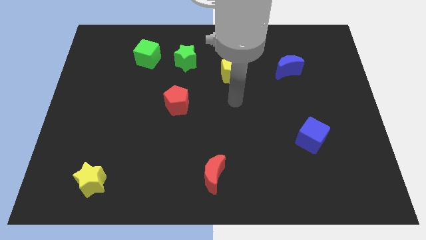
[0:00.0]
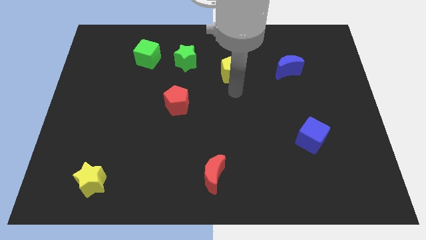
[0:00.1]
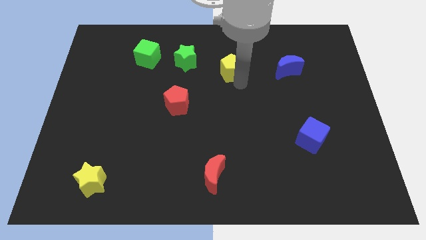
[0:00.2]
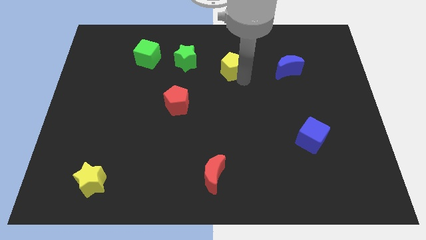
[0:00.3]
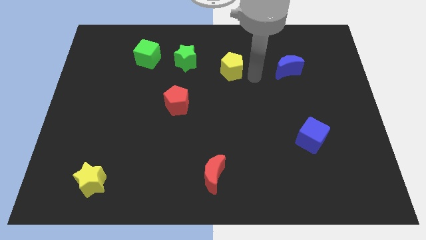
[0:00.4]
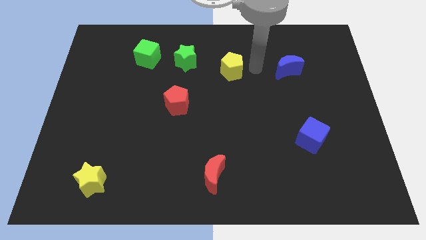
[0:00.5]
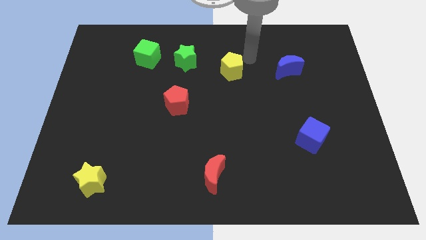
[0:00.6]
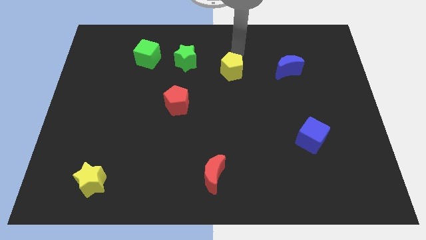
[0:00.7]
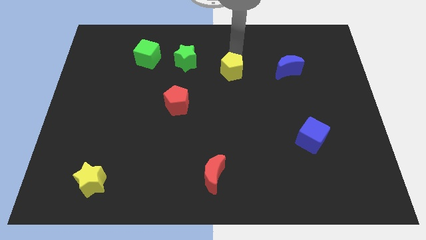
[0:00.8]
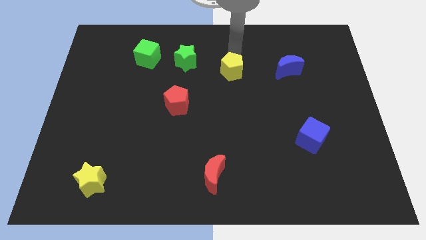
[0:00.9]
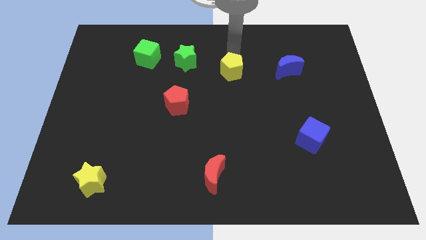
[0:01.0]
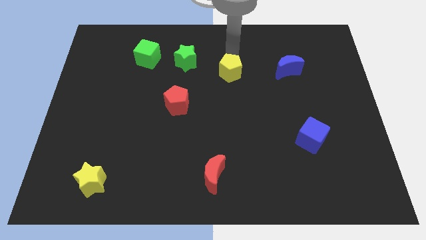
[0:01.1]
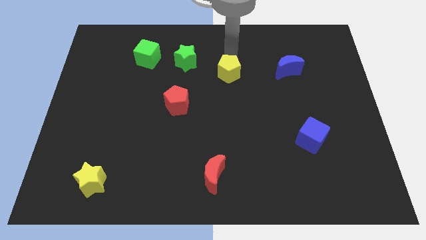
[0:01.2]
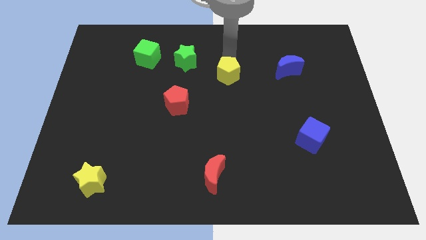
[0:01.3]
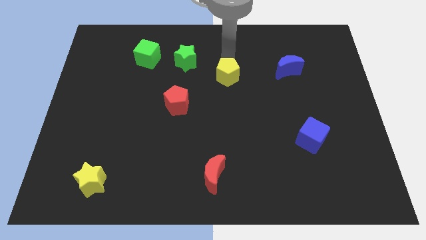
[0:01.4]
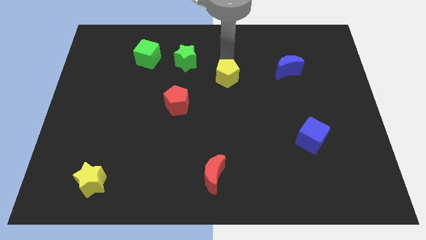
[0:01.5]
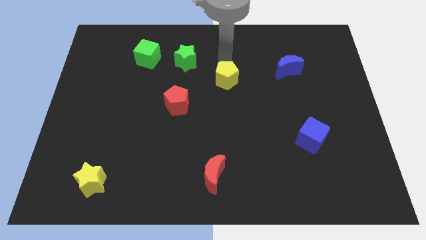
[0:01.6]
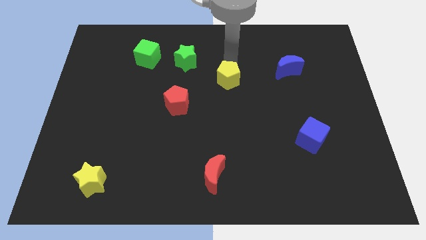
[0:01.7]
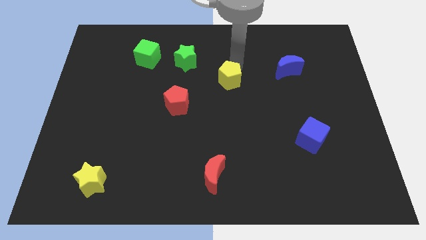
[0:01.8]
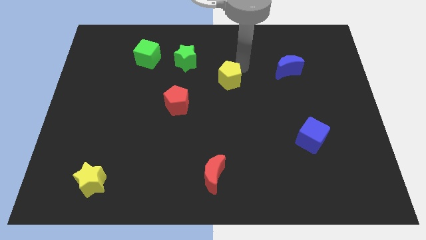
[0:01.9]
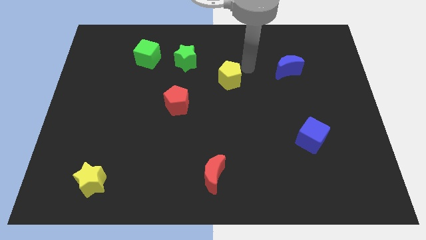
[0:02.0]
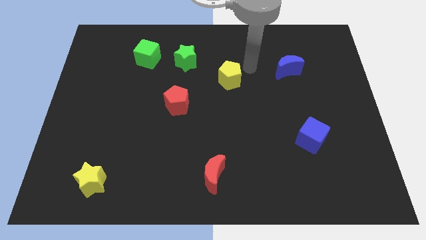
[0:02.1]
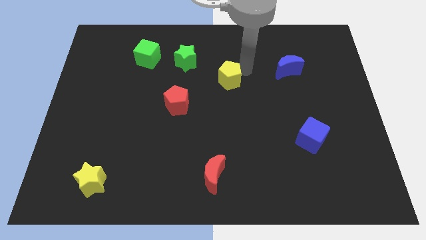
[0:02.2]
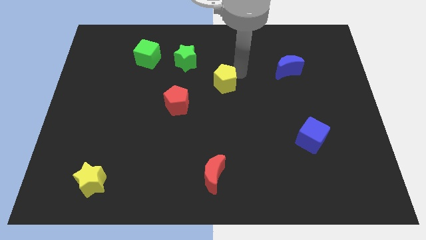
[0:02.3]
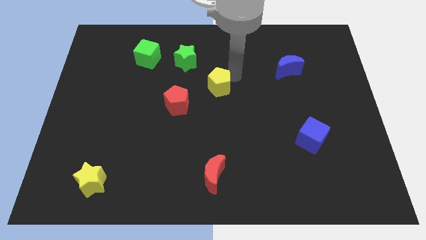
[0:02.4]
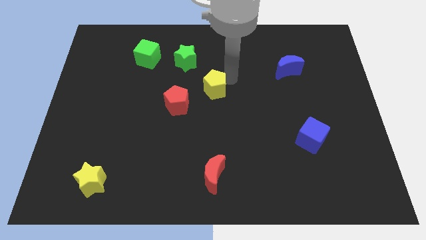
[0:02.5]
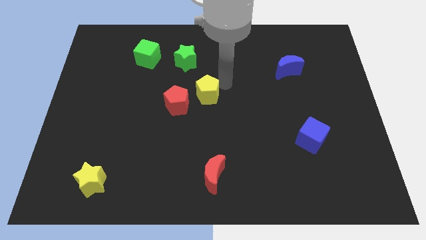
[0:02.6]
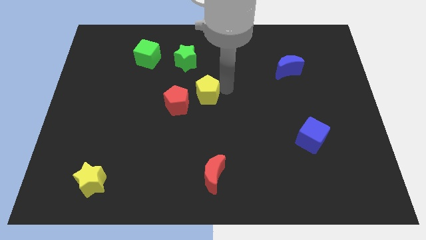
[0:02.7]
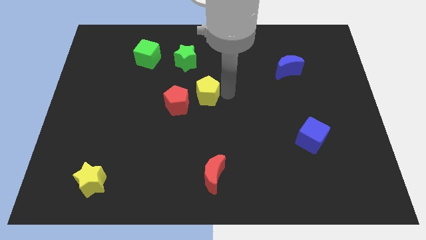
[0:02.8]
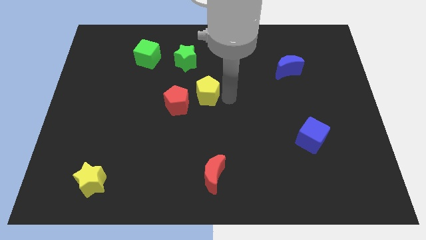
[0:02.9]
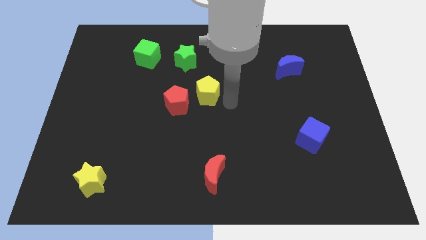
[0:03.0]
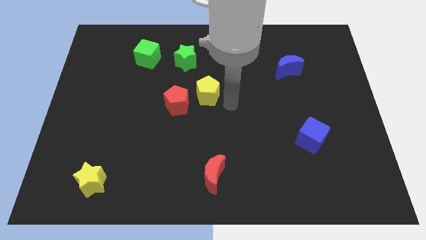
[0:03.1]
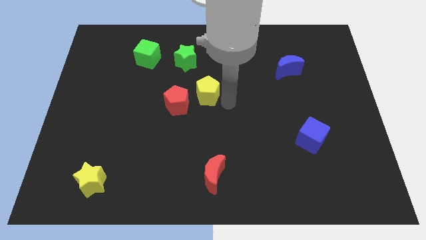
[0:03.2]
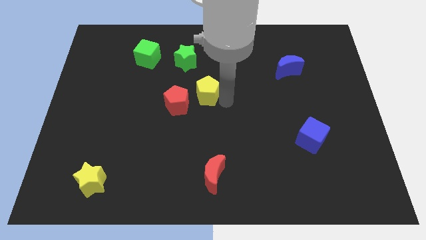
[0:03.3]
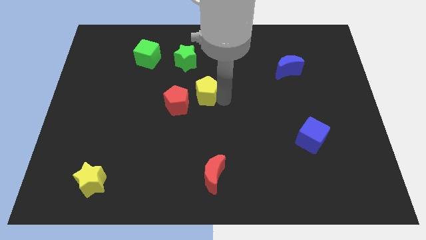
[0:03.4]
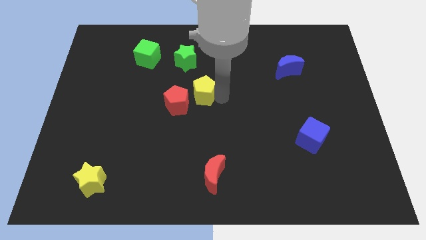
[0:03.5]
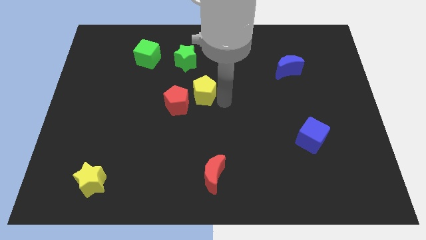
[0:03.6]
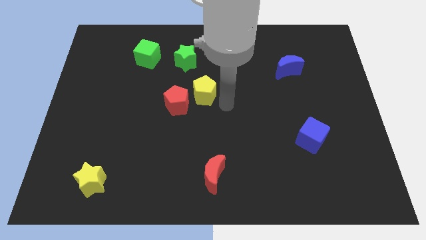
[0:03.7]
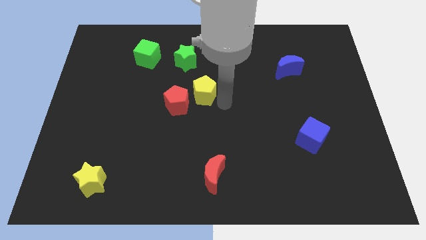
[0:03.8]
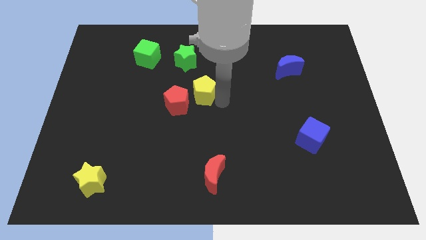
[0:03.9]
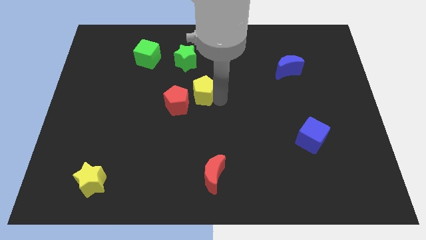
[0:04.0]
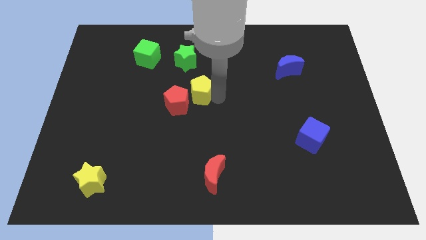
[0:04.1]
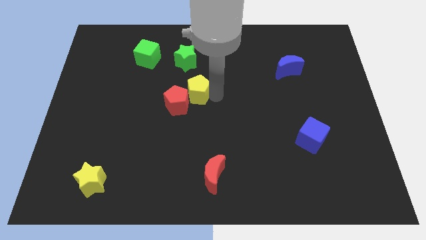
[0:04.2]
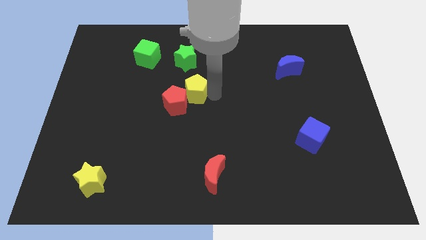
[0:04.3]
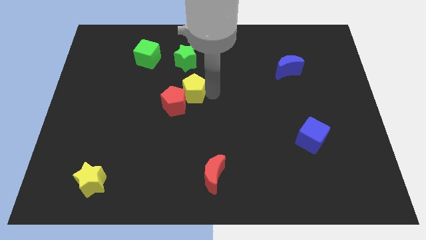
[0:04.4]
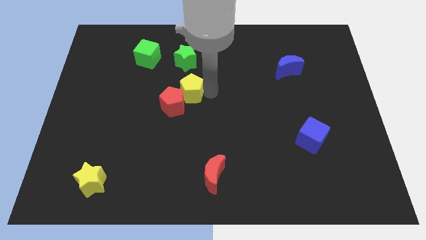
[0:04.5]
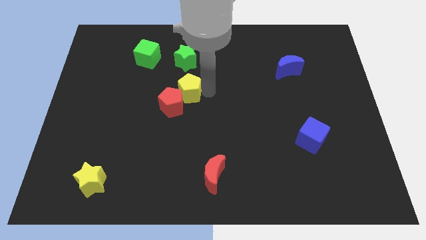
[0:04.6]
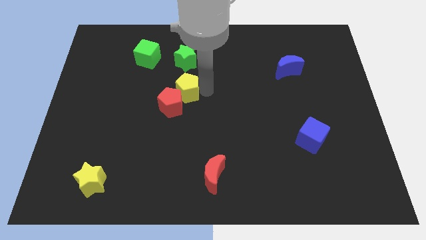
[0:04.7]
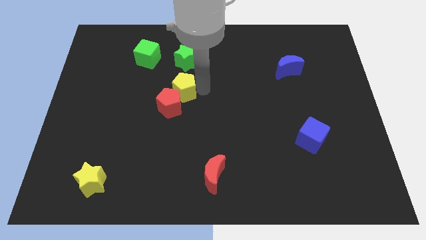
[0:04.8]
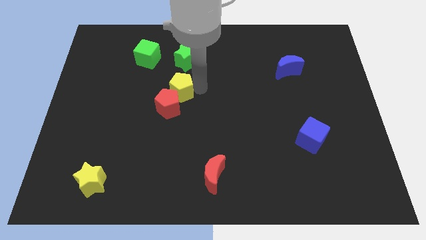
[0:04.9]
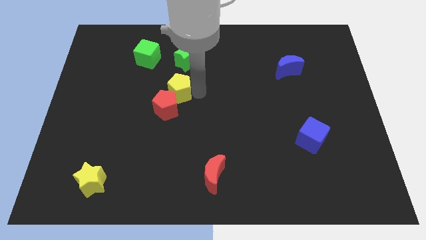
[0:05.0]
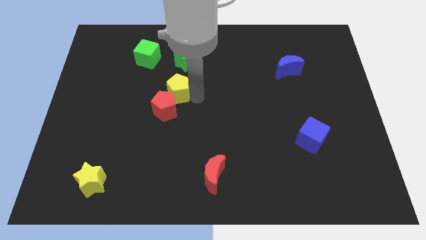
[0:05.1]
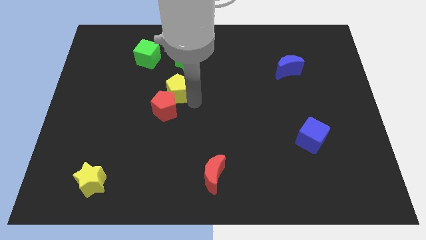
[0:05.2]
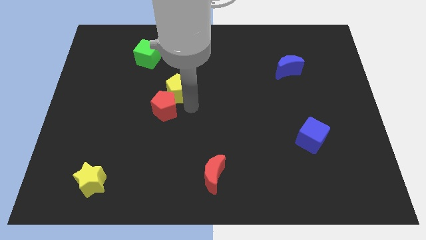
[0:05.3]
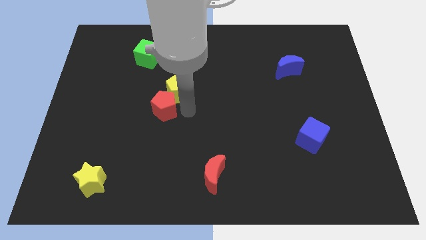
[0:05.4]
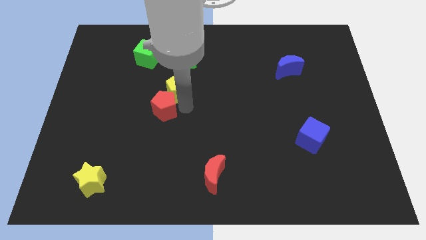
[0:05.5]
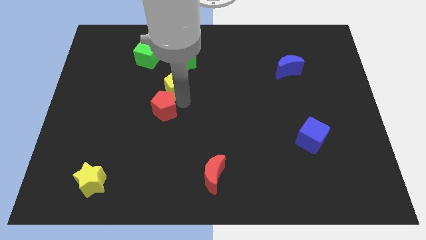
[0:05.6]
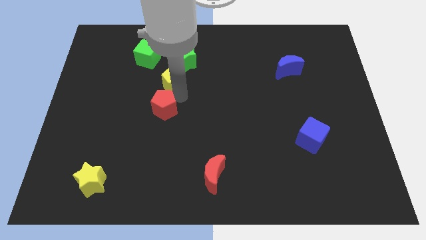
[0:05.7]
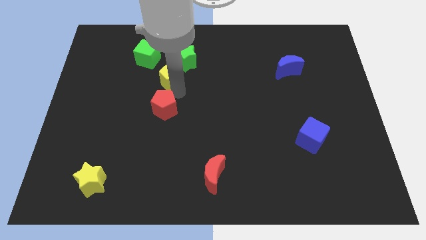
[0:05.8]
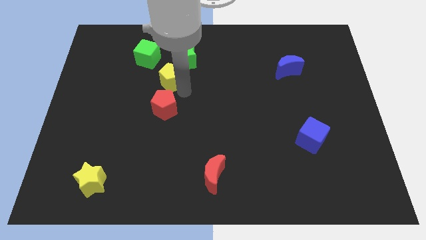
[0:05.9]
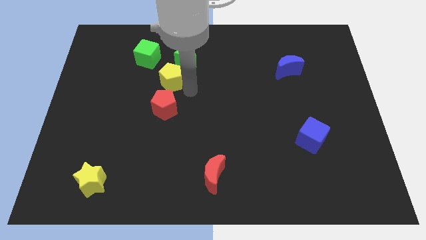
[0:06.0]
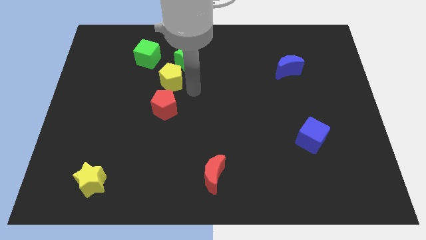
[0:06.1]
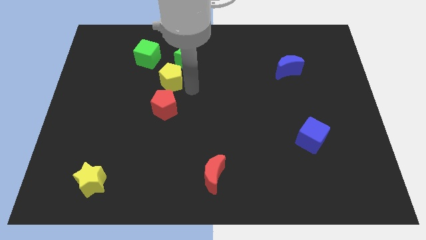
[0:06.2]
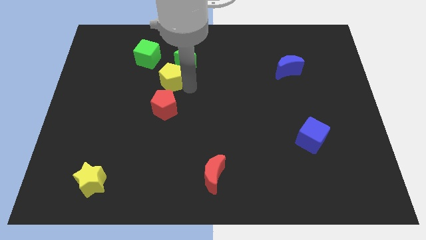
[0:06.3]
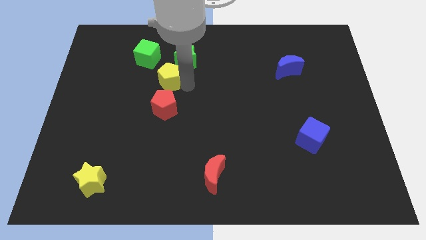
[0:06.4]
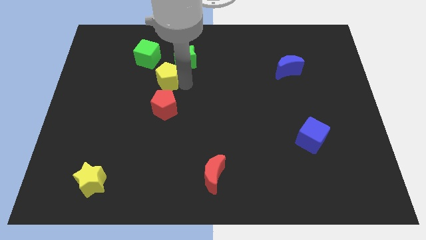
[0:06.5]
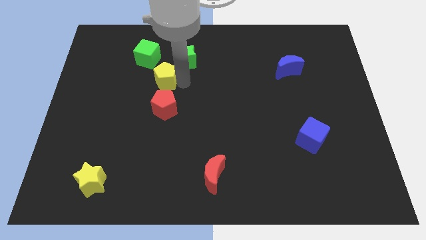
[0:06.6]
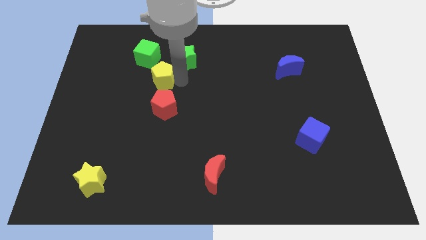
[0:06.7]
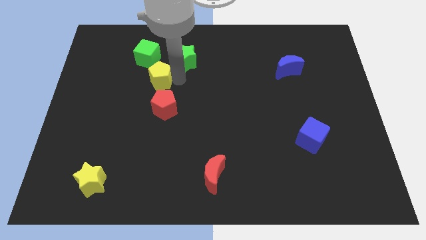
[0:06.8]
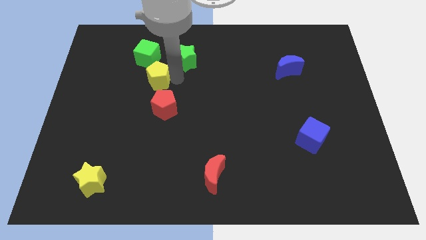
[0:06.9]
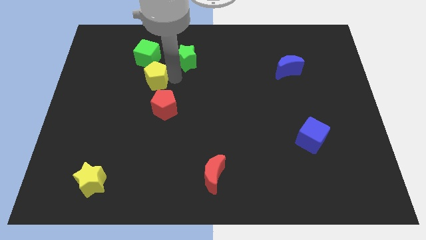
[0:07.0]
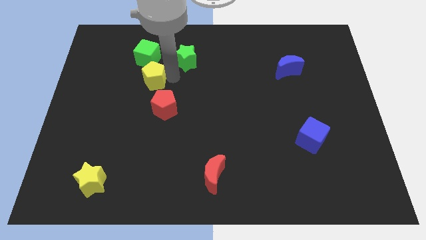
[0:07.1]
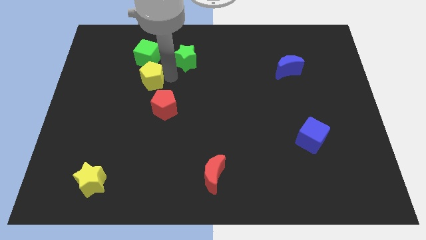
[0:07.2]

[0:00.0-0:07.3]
push the yellow pentagon left

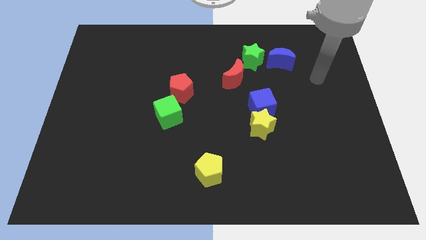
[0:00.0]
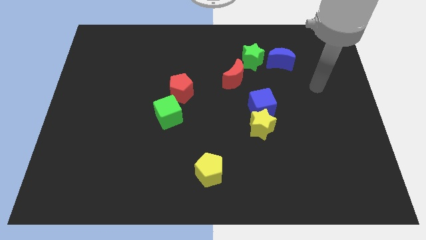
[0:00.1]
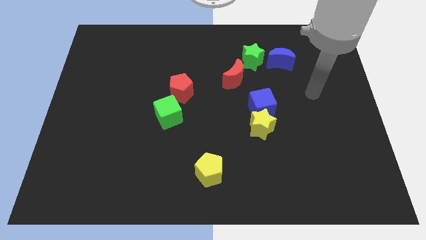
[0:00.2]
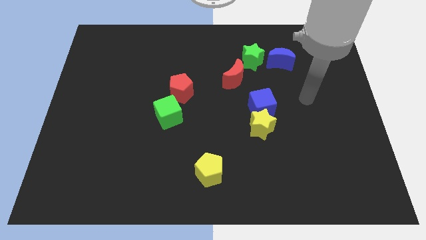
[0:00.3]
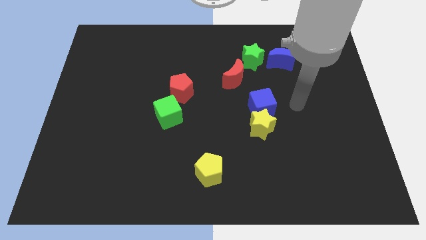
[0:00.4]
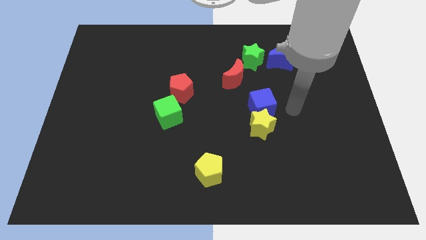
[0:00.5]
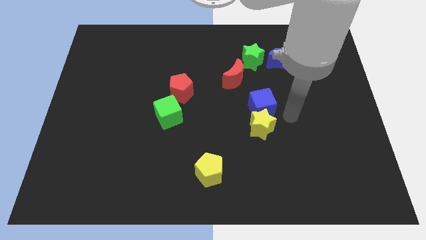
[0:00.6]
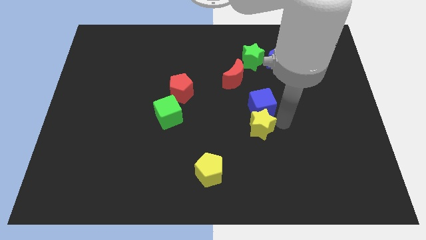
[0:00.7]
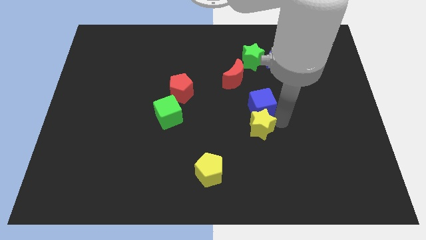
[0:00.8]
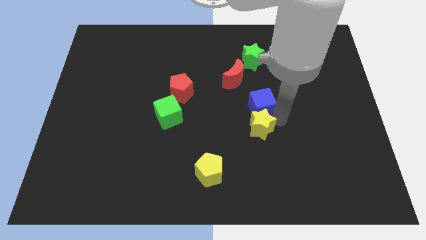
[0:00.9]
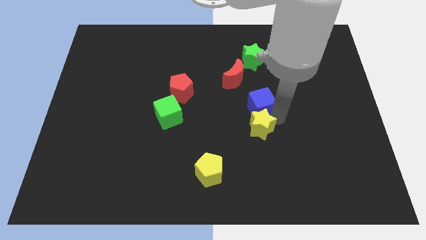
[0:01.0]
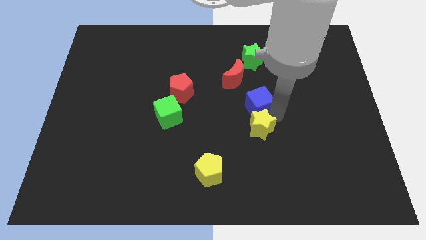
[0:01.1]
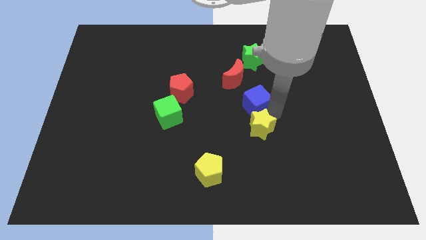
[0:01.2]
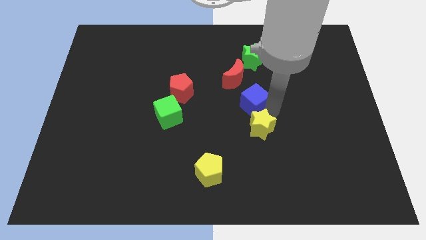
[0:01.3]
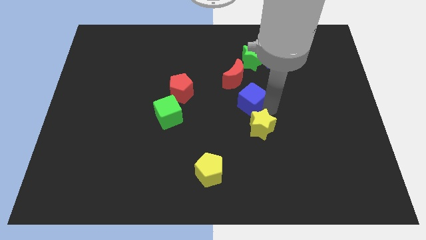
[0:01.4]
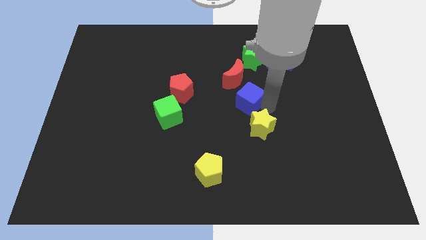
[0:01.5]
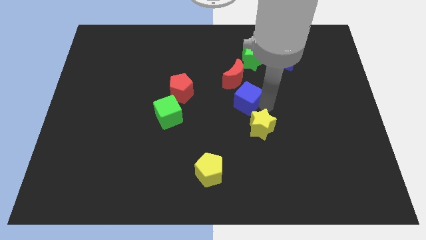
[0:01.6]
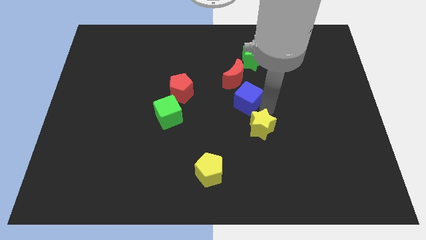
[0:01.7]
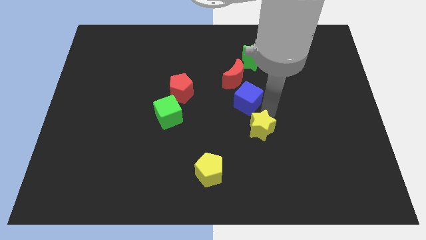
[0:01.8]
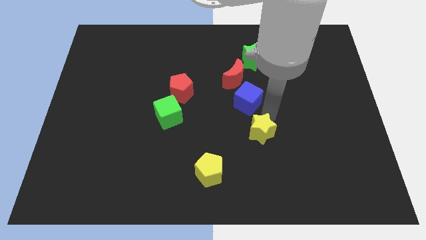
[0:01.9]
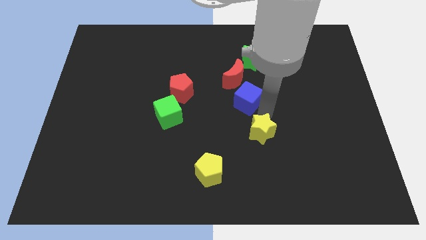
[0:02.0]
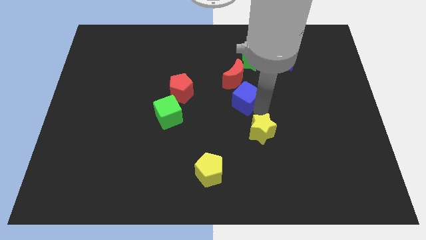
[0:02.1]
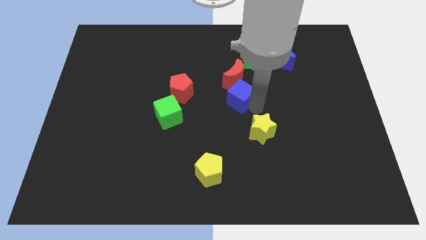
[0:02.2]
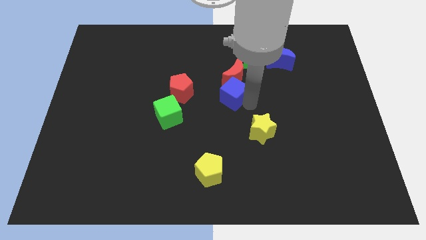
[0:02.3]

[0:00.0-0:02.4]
slightly slide the blue cube upwards and left diagonally
